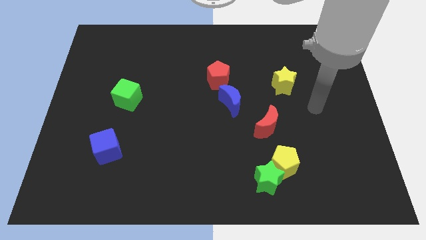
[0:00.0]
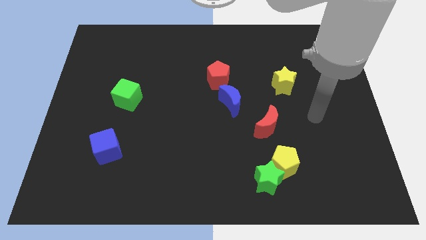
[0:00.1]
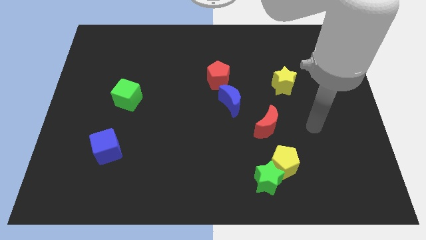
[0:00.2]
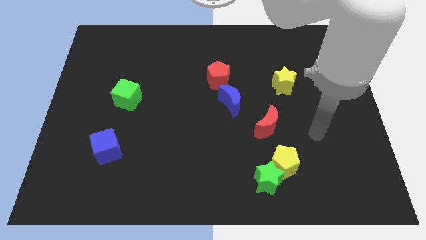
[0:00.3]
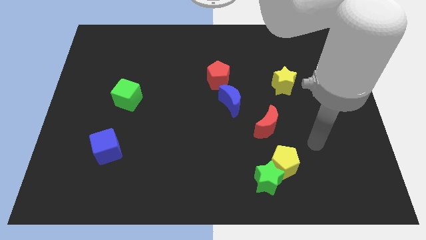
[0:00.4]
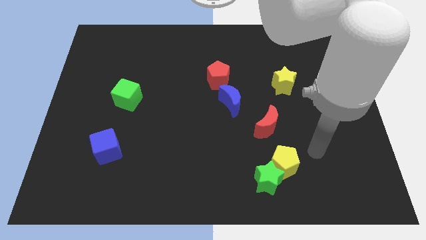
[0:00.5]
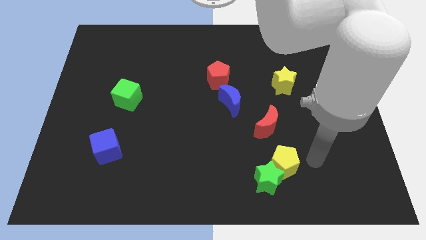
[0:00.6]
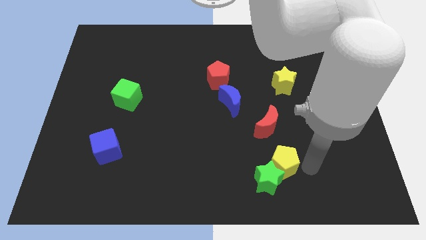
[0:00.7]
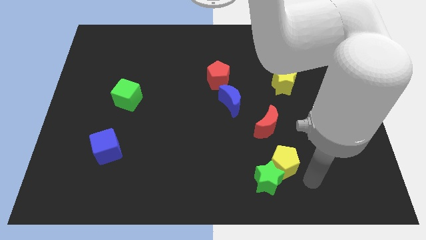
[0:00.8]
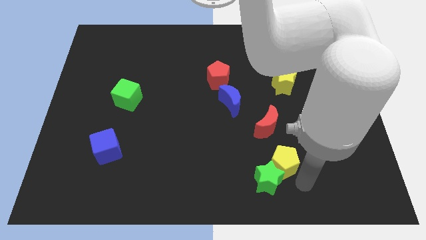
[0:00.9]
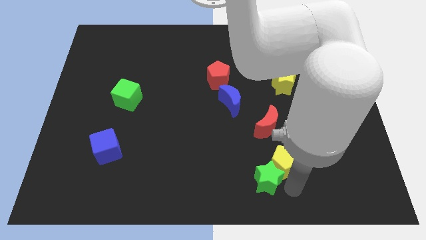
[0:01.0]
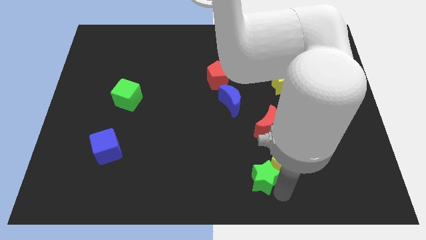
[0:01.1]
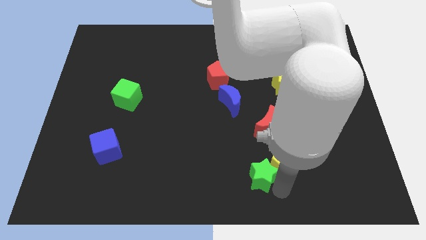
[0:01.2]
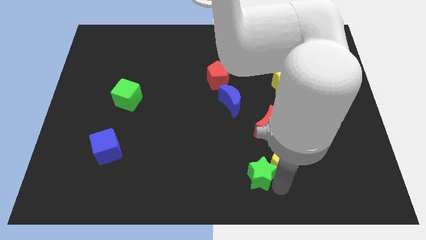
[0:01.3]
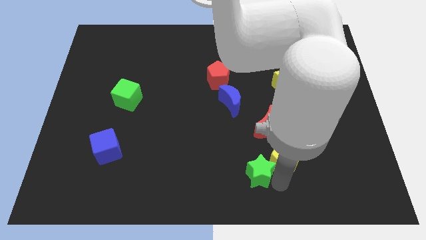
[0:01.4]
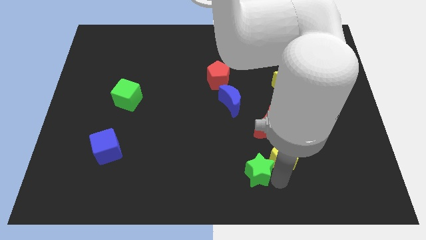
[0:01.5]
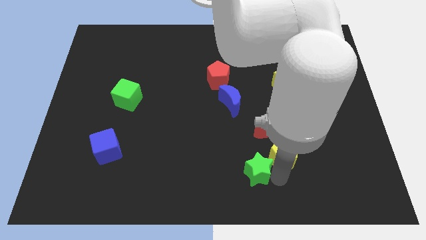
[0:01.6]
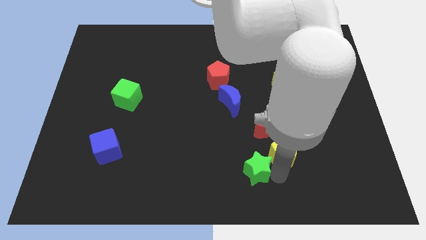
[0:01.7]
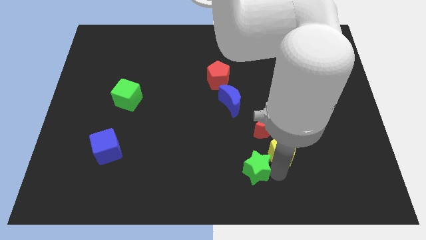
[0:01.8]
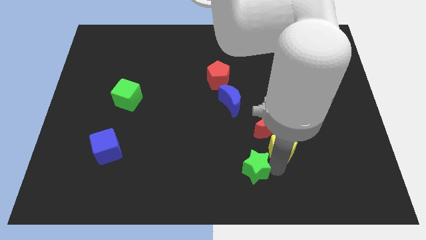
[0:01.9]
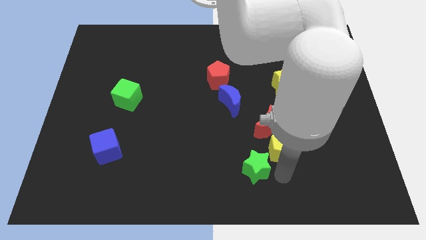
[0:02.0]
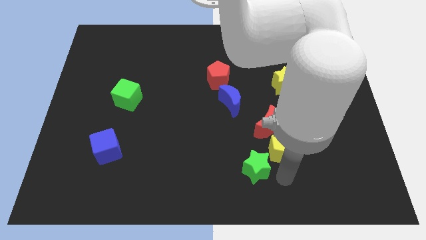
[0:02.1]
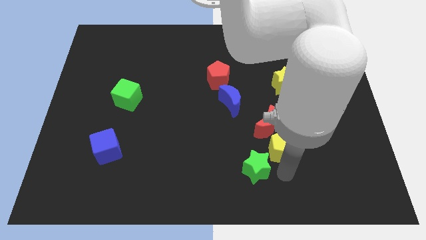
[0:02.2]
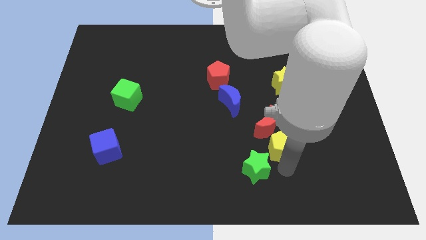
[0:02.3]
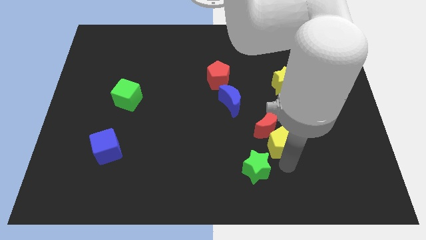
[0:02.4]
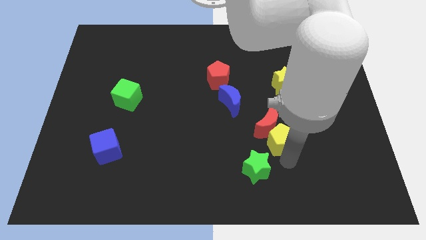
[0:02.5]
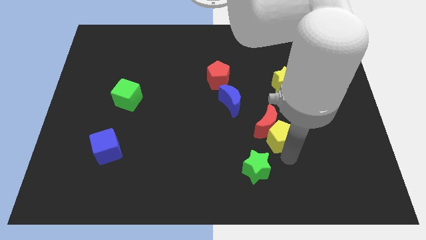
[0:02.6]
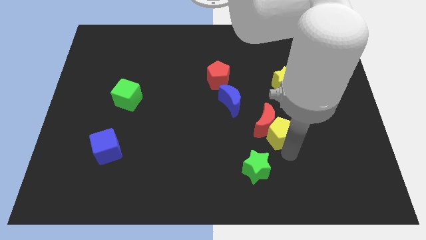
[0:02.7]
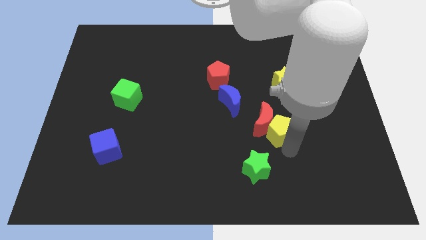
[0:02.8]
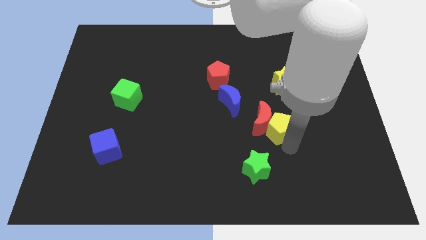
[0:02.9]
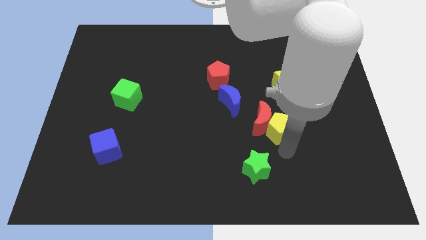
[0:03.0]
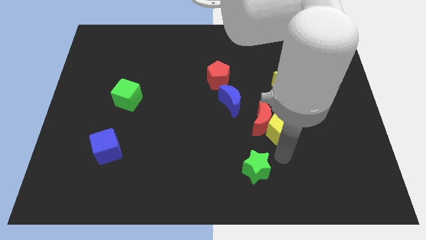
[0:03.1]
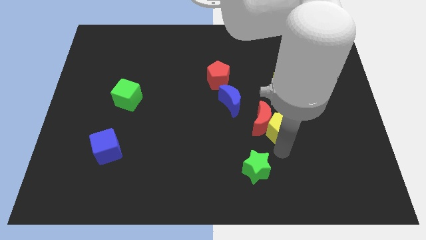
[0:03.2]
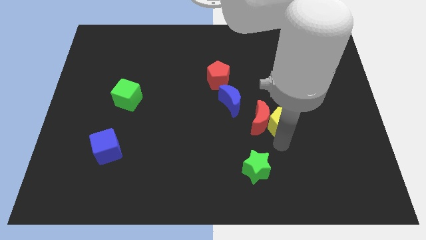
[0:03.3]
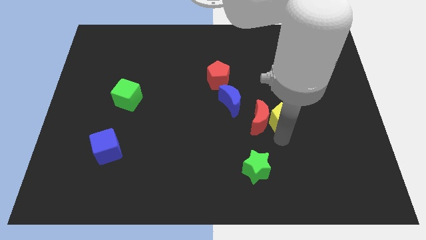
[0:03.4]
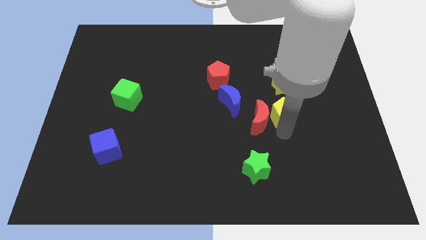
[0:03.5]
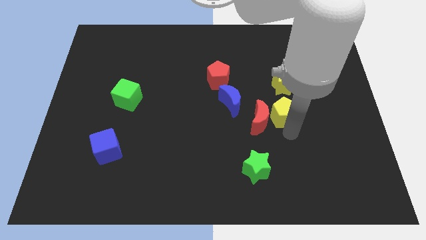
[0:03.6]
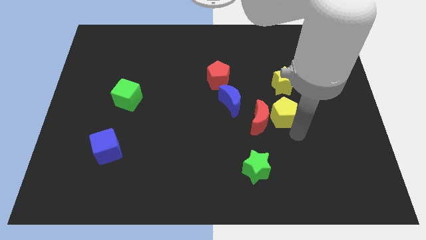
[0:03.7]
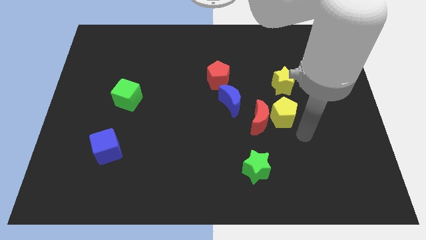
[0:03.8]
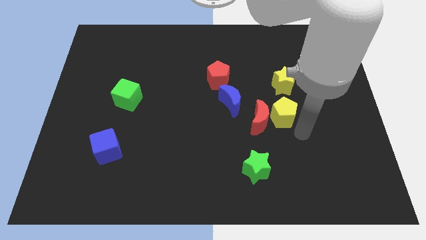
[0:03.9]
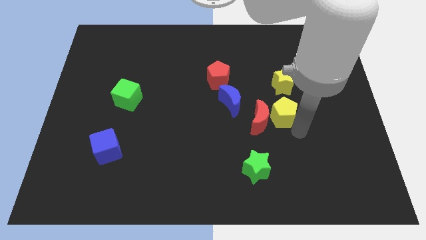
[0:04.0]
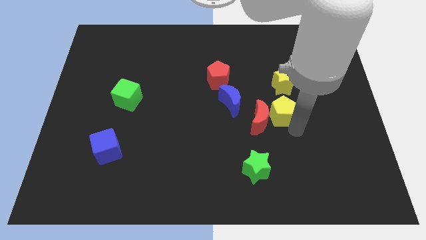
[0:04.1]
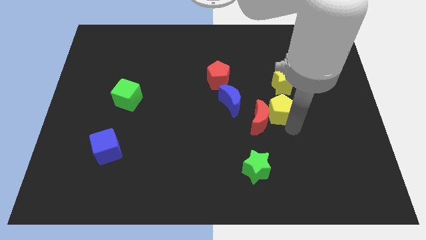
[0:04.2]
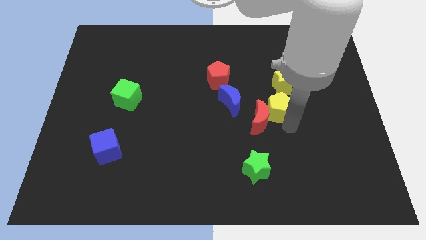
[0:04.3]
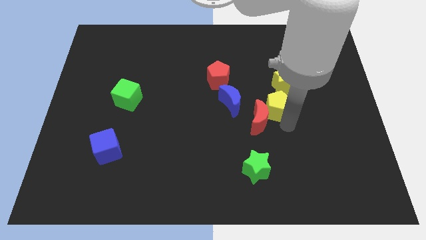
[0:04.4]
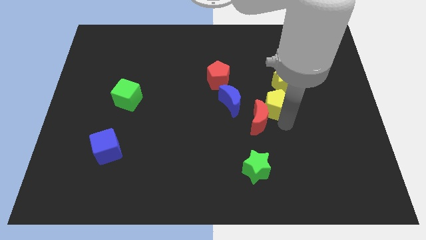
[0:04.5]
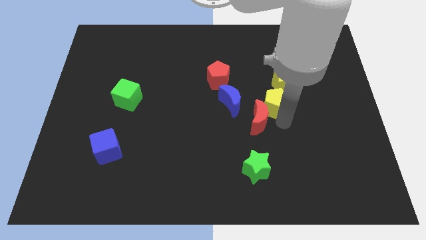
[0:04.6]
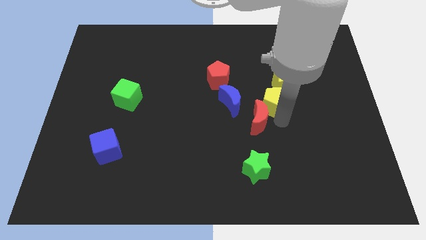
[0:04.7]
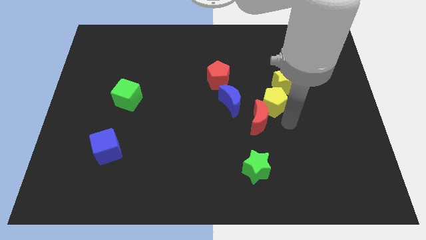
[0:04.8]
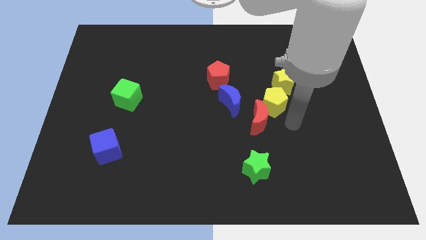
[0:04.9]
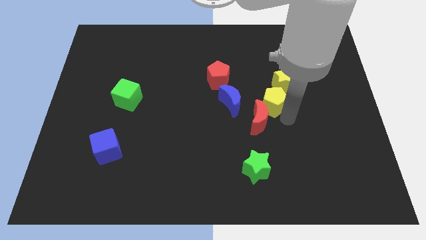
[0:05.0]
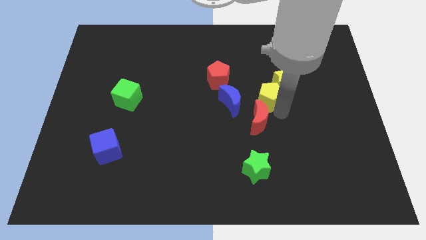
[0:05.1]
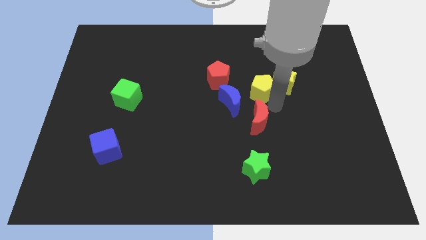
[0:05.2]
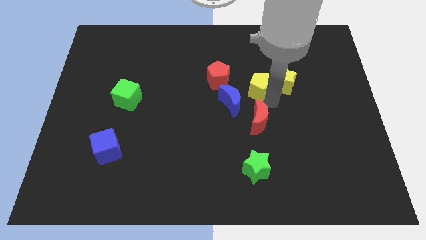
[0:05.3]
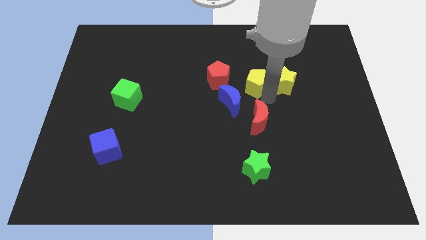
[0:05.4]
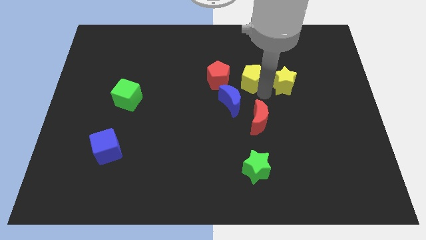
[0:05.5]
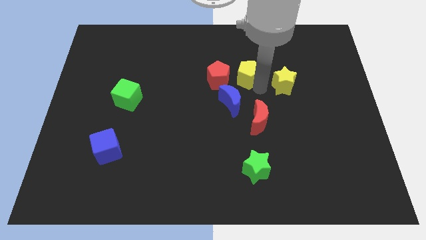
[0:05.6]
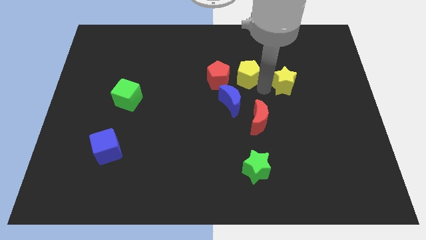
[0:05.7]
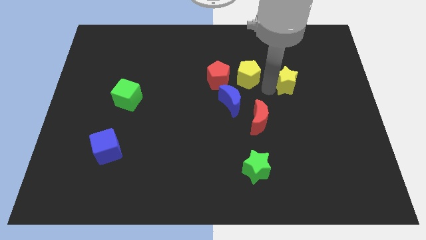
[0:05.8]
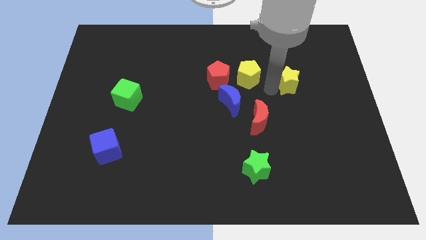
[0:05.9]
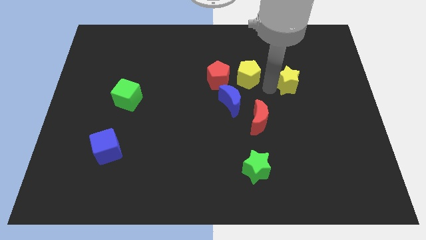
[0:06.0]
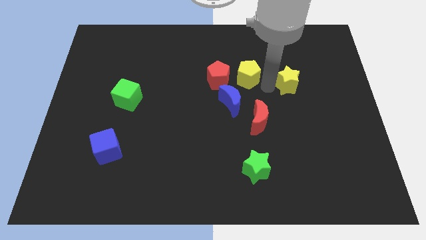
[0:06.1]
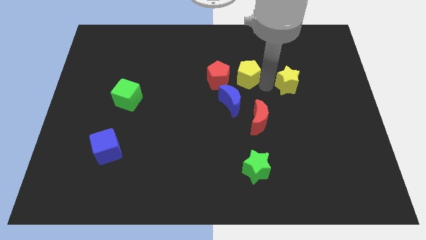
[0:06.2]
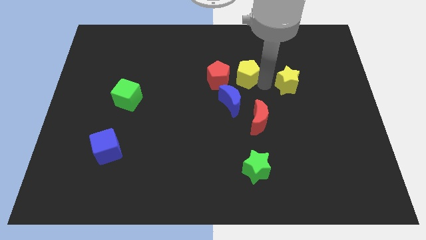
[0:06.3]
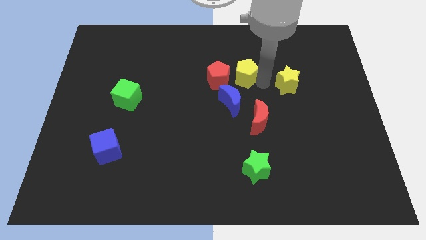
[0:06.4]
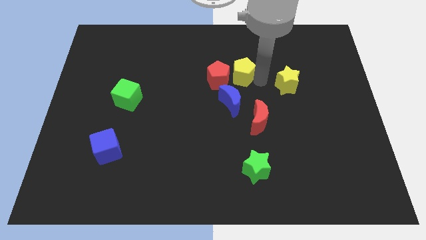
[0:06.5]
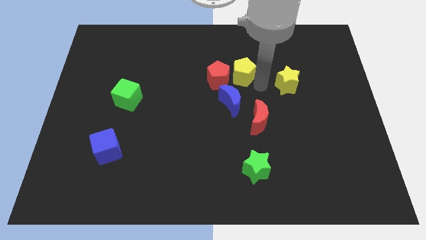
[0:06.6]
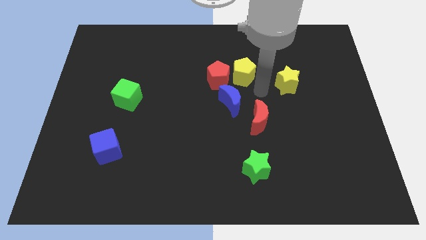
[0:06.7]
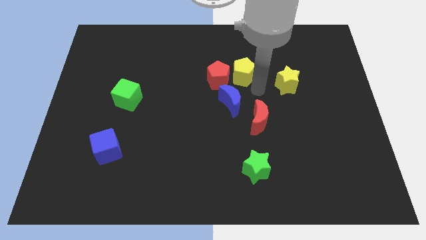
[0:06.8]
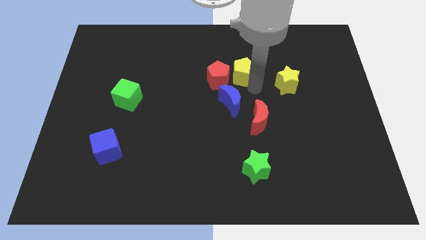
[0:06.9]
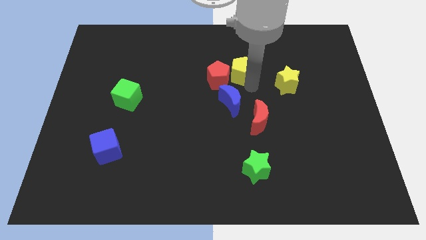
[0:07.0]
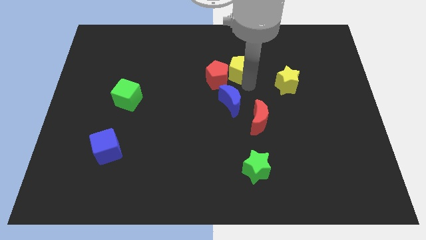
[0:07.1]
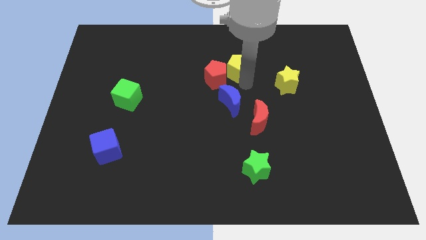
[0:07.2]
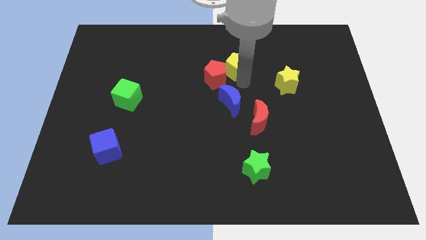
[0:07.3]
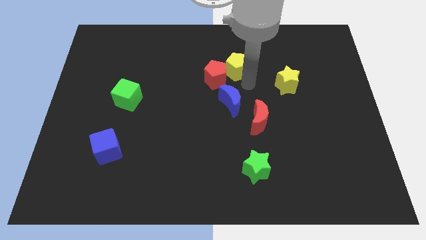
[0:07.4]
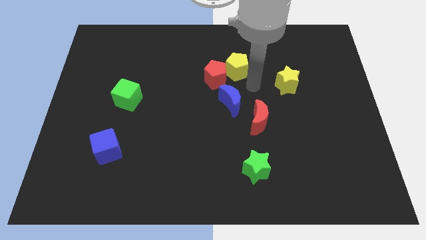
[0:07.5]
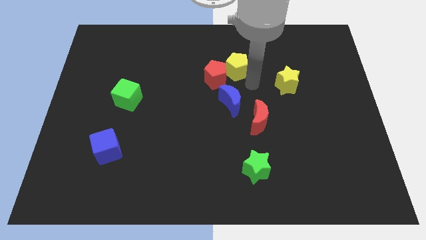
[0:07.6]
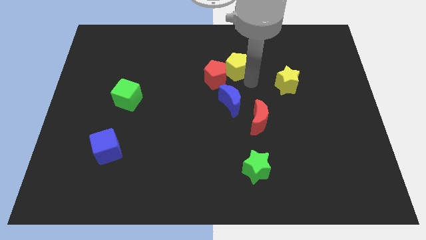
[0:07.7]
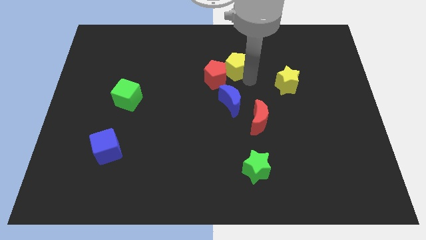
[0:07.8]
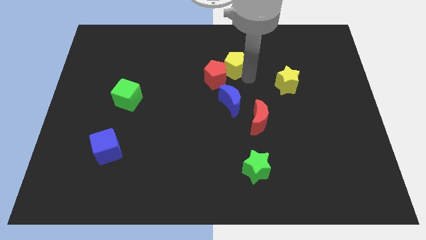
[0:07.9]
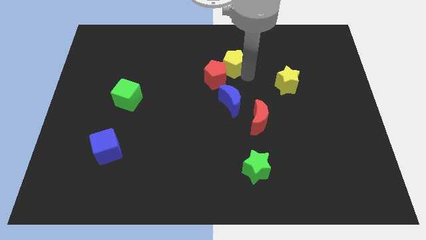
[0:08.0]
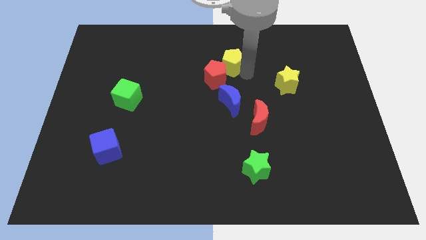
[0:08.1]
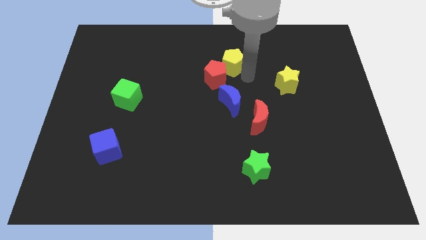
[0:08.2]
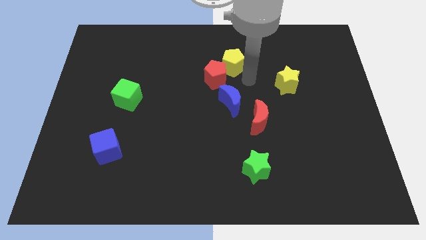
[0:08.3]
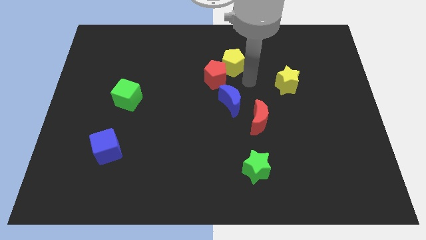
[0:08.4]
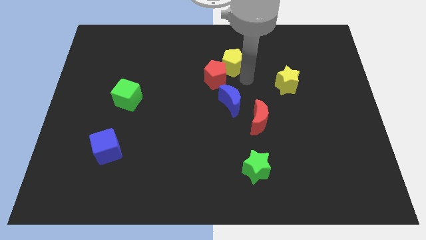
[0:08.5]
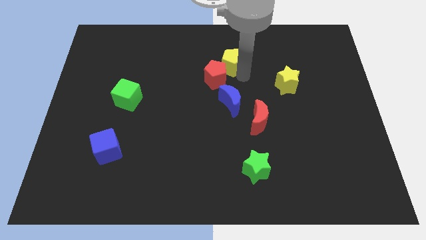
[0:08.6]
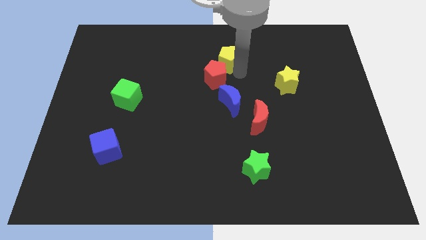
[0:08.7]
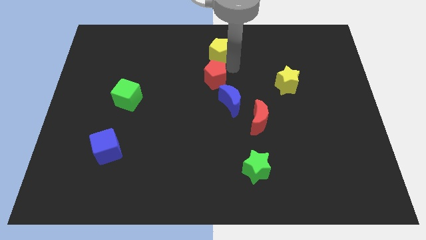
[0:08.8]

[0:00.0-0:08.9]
slide the yellow pentagon to the top side
